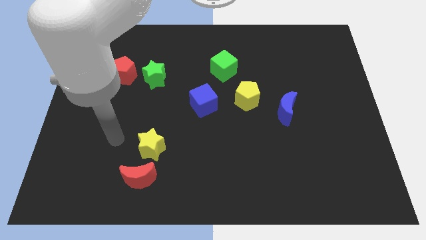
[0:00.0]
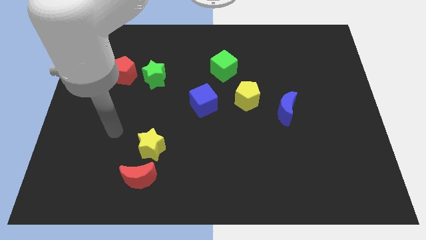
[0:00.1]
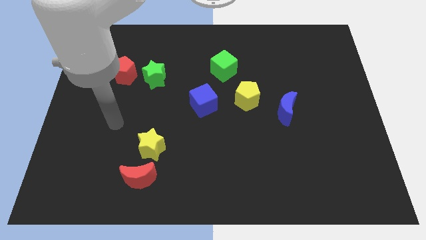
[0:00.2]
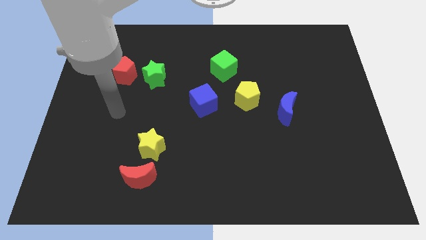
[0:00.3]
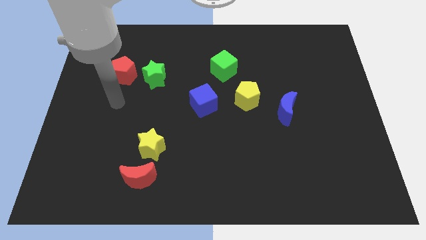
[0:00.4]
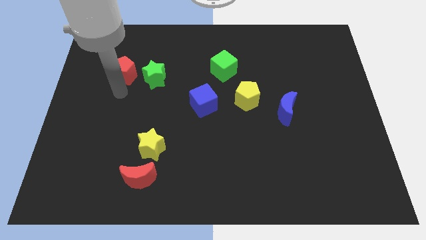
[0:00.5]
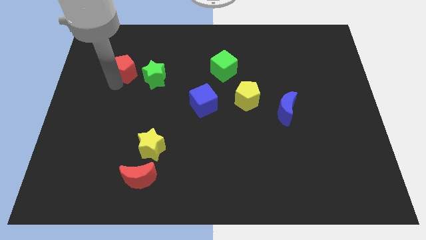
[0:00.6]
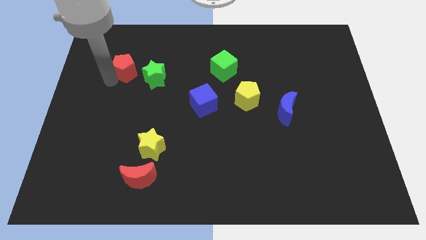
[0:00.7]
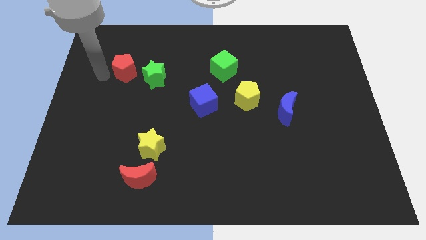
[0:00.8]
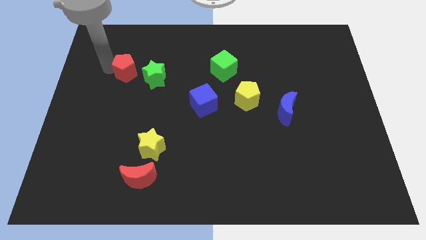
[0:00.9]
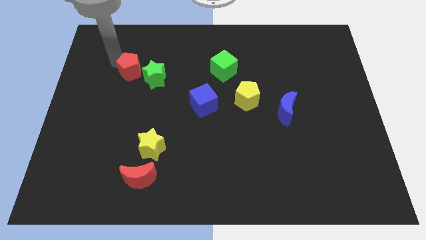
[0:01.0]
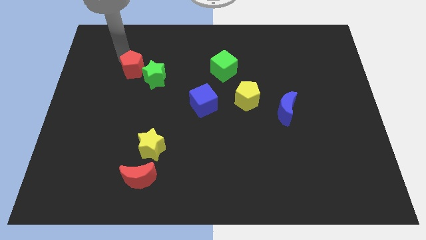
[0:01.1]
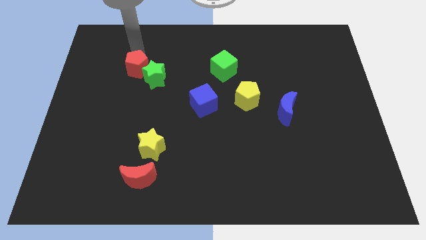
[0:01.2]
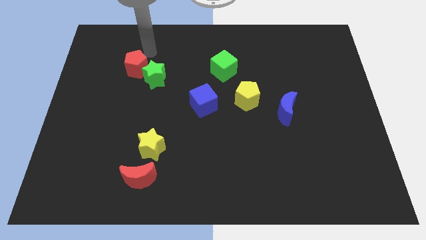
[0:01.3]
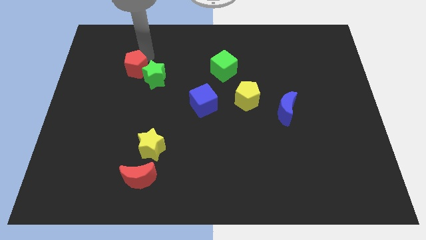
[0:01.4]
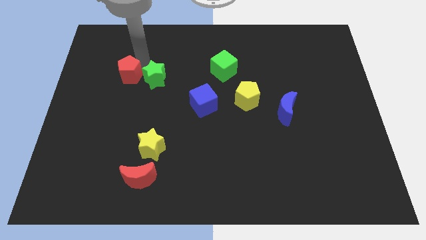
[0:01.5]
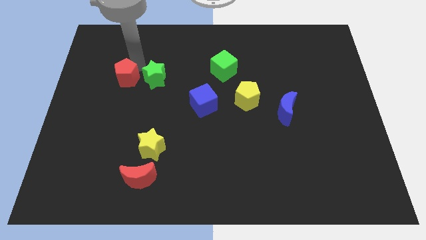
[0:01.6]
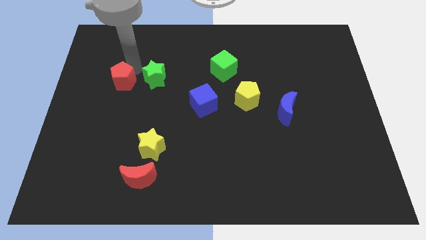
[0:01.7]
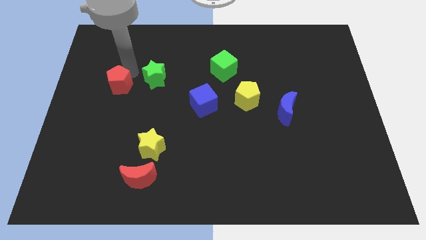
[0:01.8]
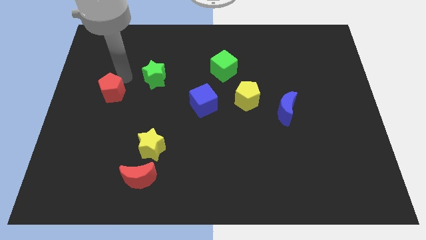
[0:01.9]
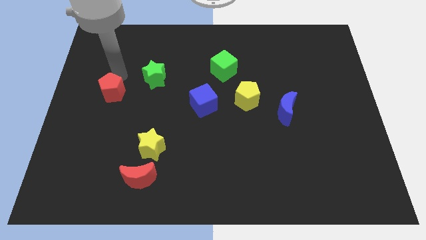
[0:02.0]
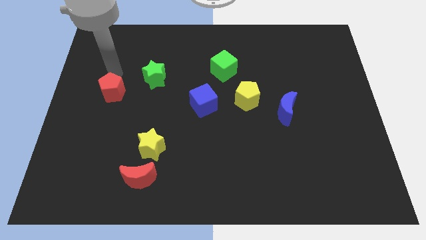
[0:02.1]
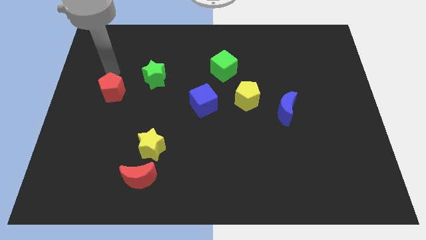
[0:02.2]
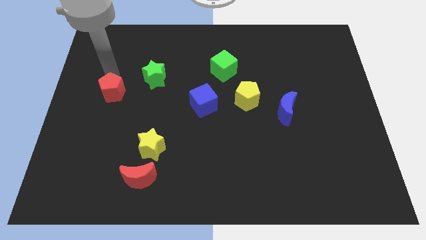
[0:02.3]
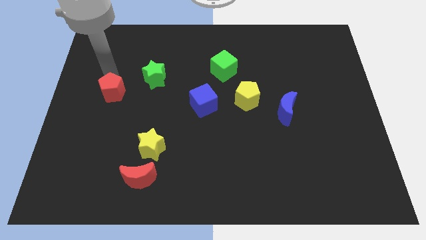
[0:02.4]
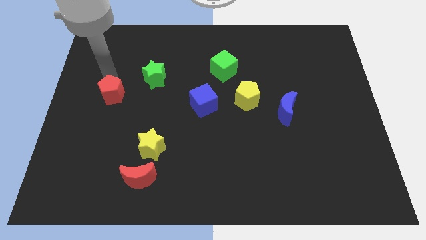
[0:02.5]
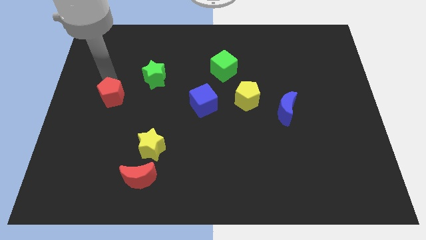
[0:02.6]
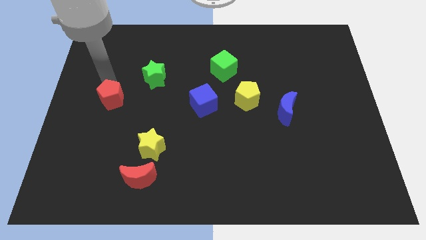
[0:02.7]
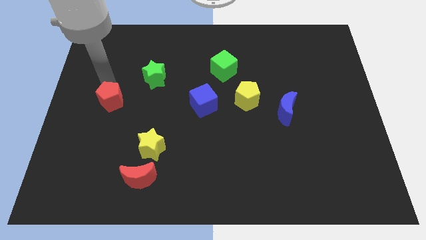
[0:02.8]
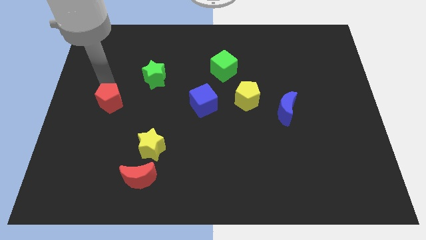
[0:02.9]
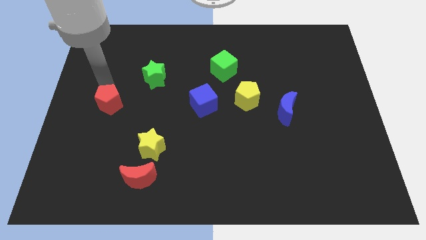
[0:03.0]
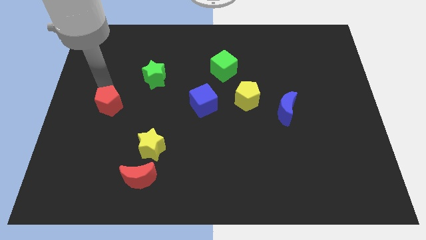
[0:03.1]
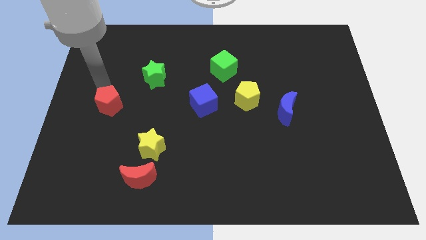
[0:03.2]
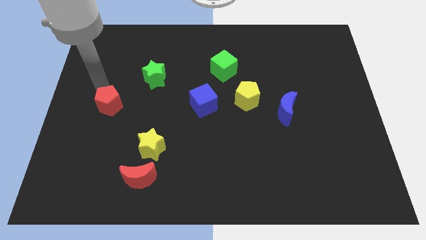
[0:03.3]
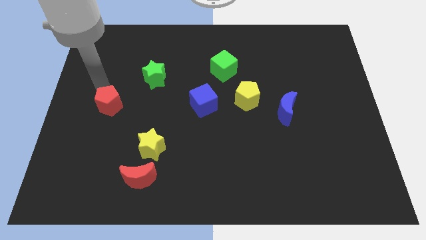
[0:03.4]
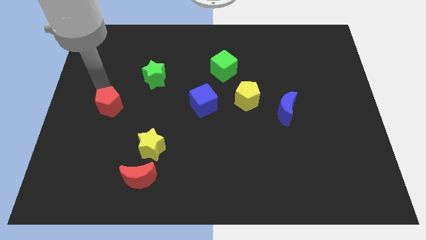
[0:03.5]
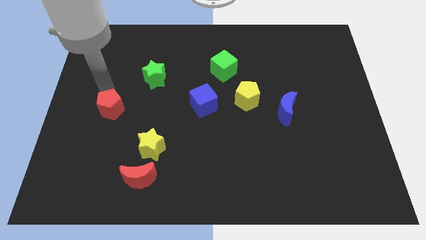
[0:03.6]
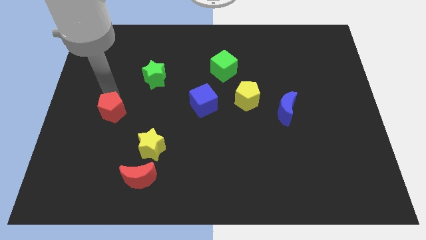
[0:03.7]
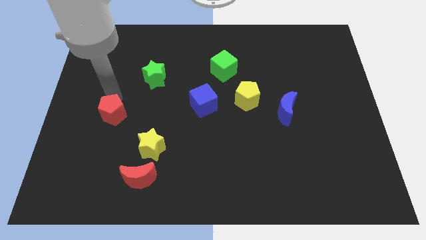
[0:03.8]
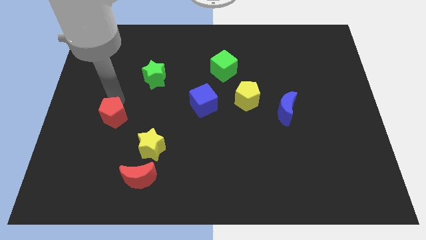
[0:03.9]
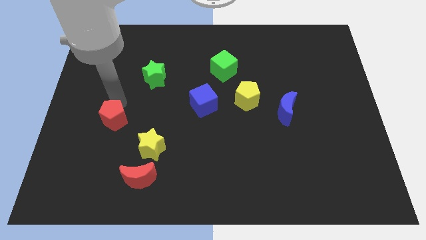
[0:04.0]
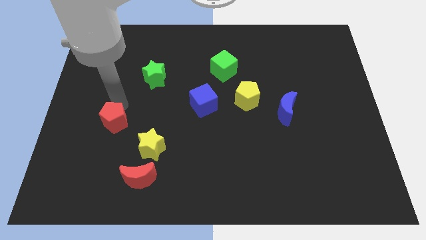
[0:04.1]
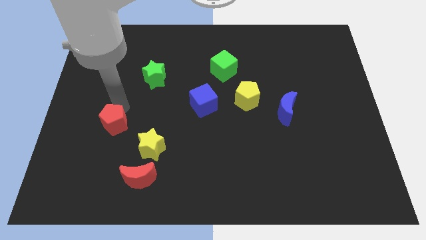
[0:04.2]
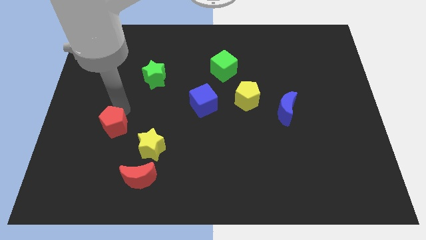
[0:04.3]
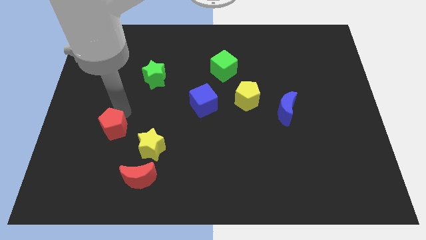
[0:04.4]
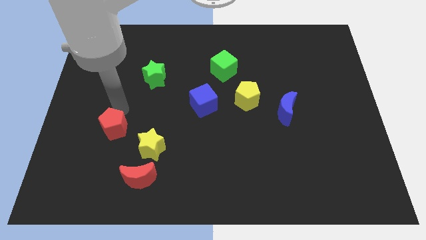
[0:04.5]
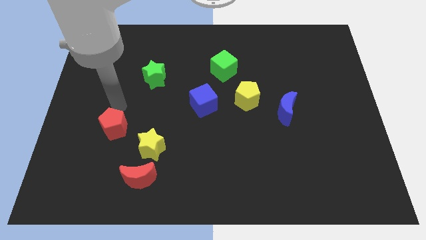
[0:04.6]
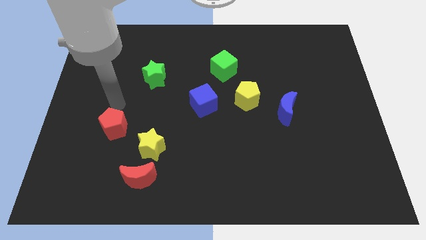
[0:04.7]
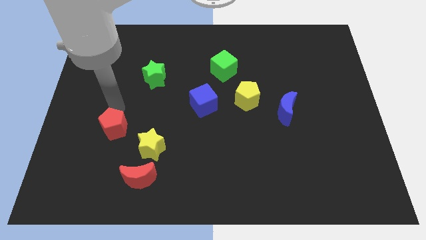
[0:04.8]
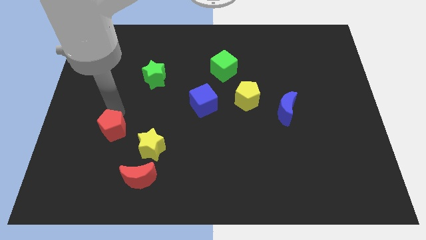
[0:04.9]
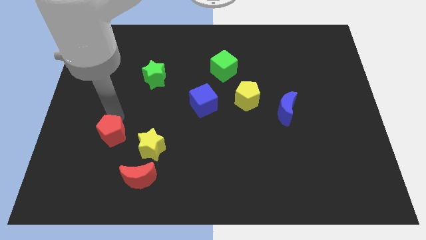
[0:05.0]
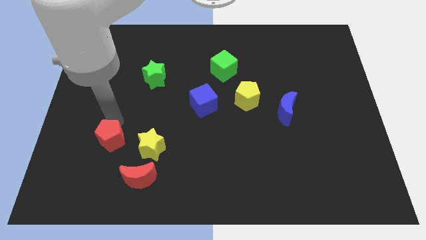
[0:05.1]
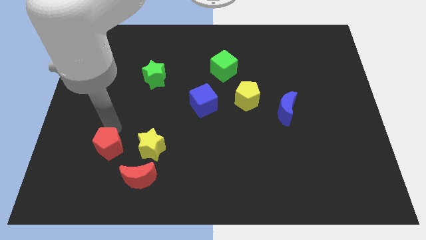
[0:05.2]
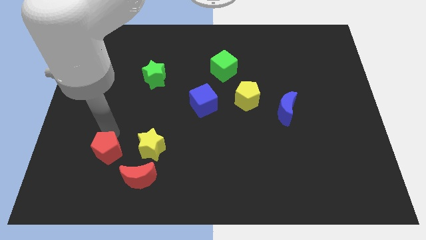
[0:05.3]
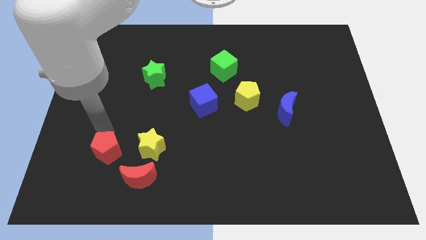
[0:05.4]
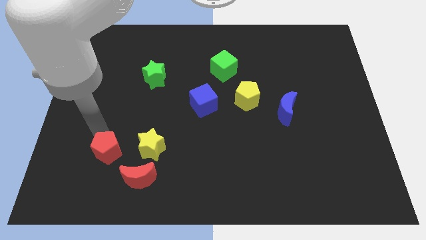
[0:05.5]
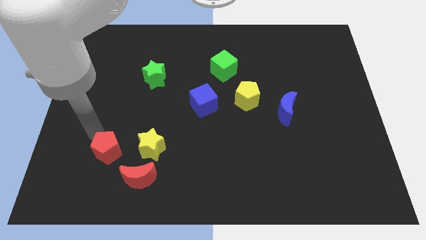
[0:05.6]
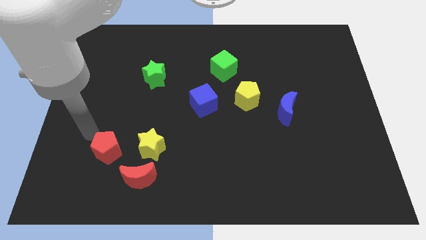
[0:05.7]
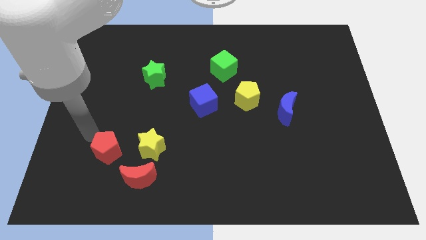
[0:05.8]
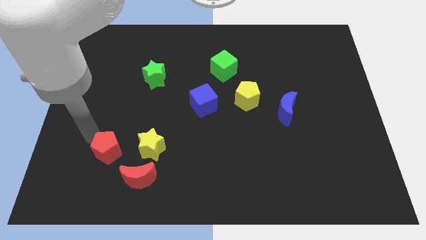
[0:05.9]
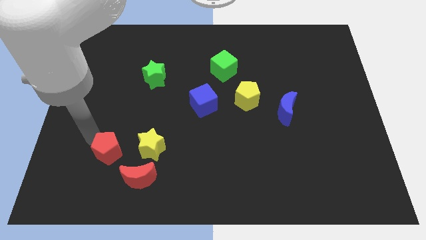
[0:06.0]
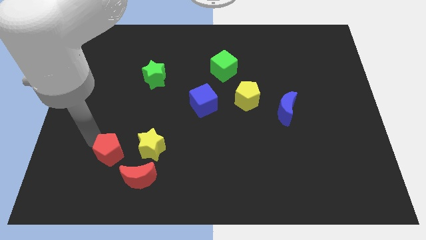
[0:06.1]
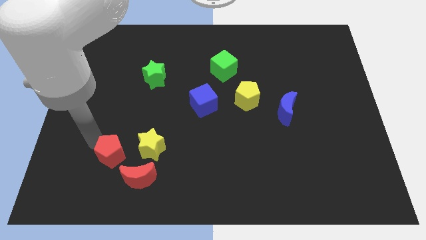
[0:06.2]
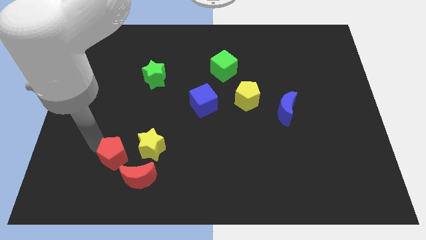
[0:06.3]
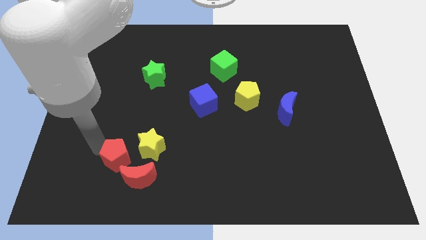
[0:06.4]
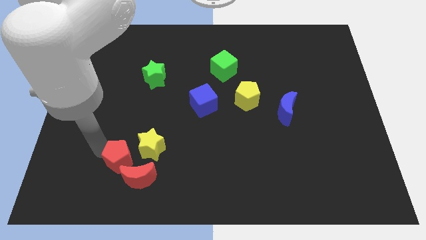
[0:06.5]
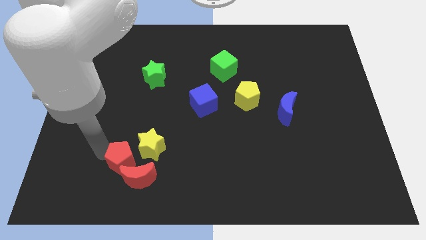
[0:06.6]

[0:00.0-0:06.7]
put the red pentagon to the red moon
